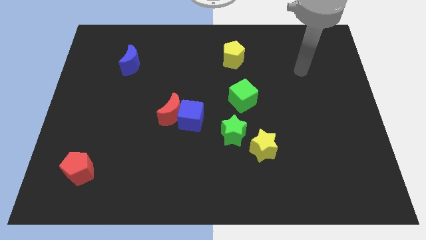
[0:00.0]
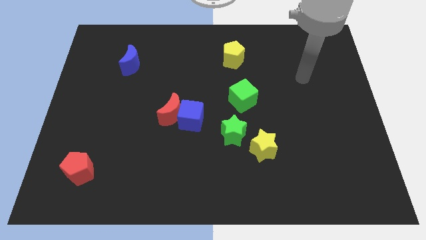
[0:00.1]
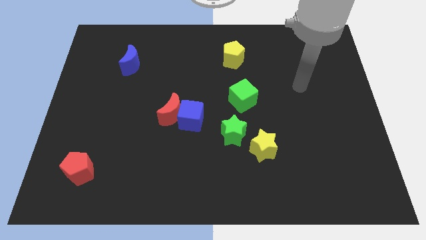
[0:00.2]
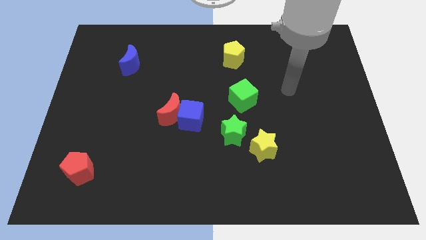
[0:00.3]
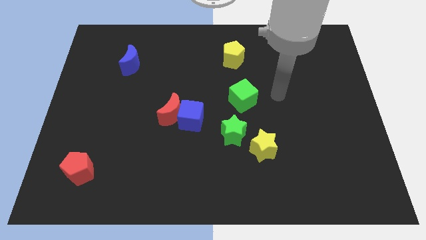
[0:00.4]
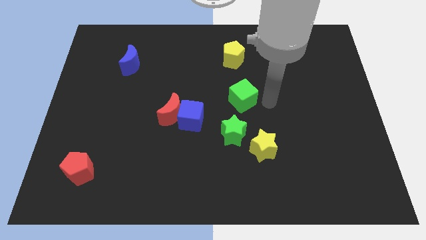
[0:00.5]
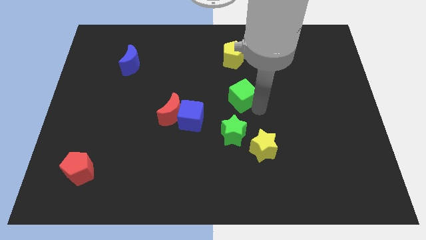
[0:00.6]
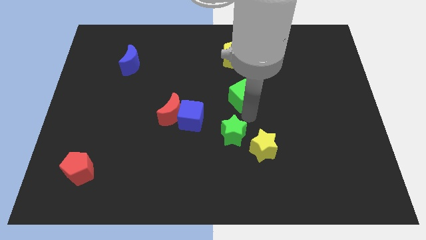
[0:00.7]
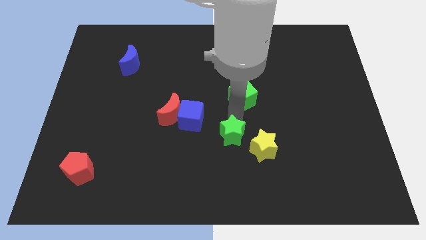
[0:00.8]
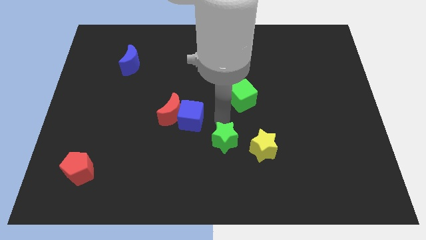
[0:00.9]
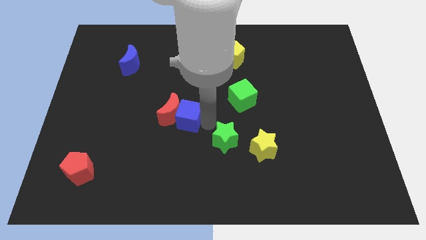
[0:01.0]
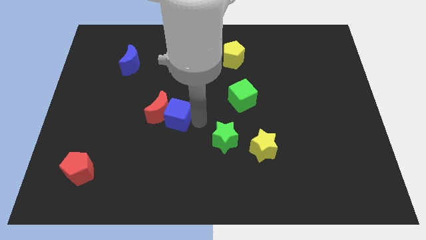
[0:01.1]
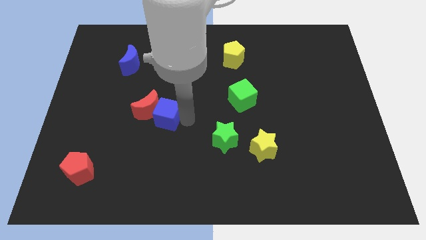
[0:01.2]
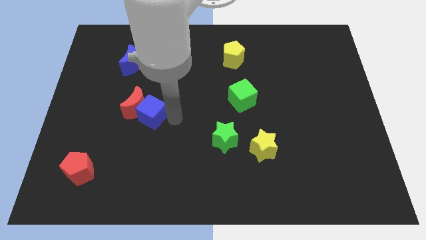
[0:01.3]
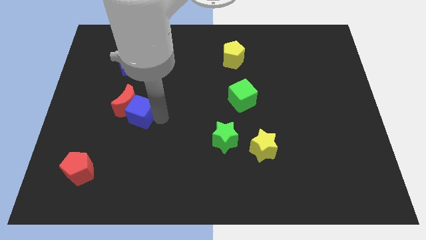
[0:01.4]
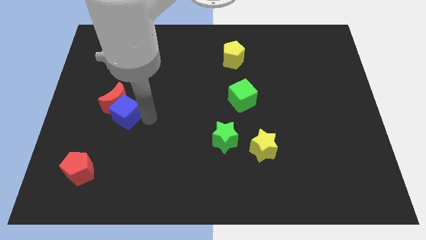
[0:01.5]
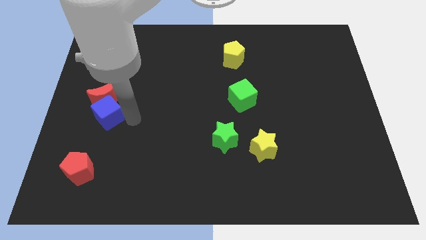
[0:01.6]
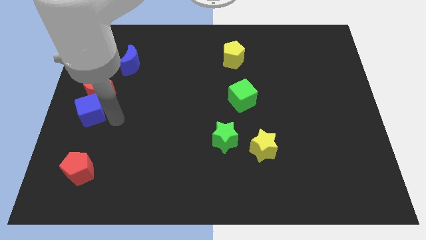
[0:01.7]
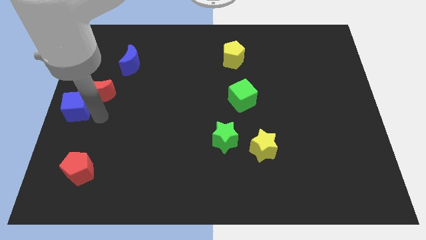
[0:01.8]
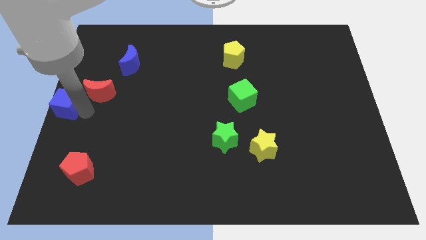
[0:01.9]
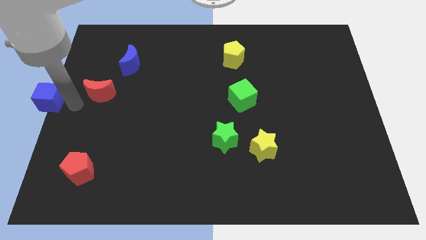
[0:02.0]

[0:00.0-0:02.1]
move the red moon away from the blue cube

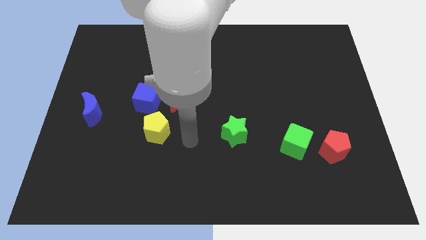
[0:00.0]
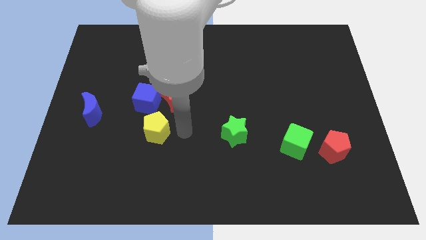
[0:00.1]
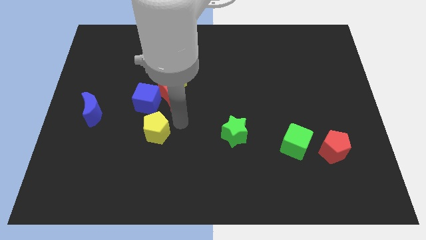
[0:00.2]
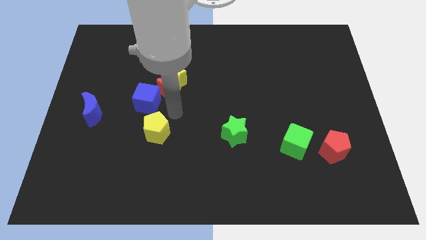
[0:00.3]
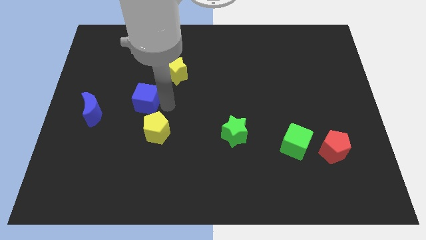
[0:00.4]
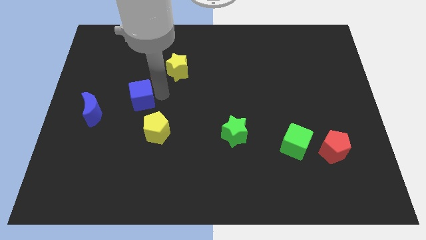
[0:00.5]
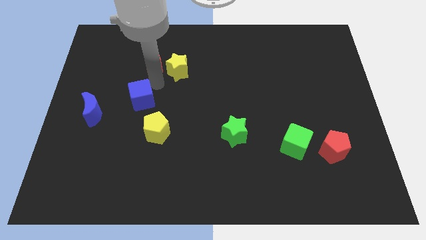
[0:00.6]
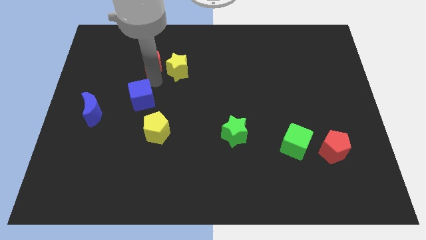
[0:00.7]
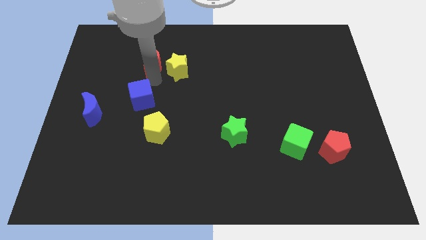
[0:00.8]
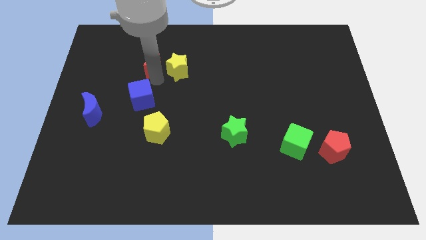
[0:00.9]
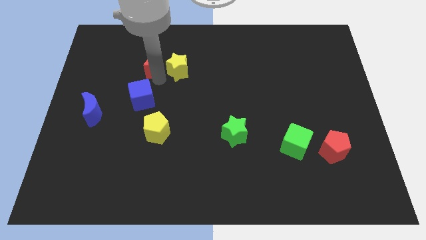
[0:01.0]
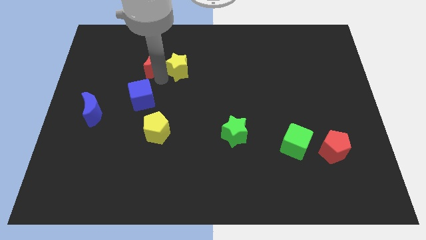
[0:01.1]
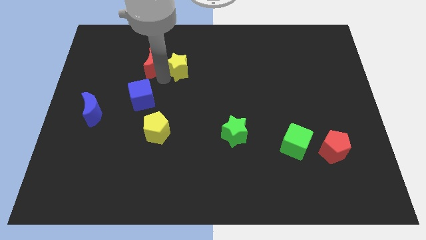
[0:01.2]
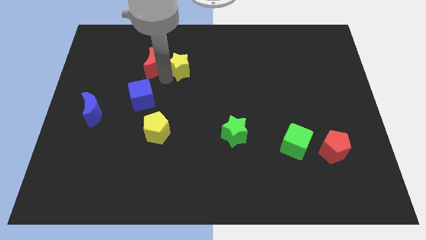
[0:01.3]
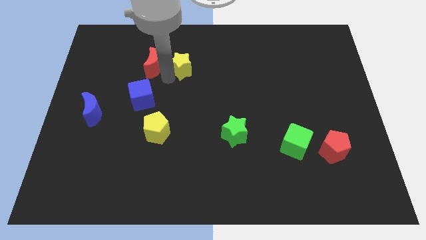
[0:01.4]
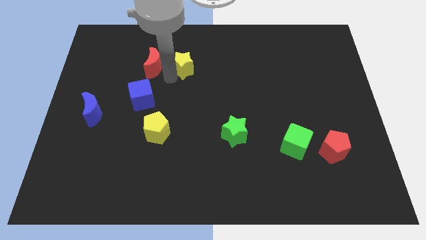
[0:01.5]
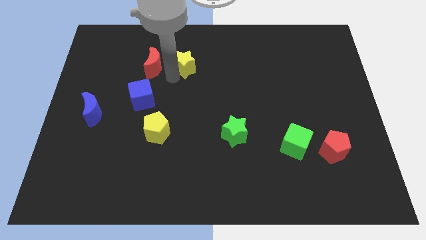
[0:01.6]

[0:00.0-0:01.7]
move the yellow star away from the red moon and blue cube

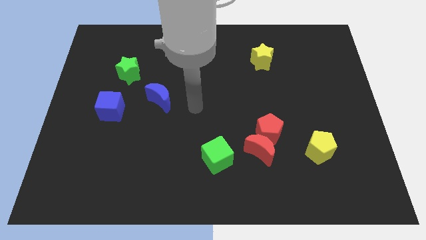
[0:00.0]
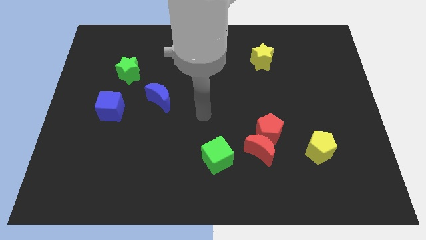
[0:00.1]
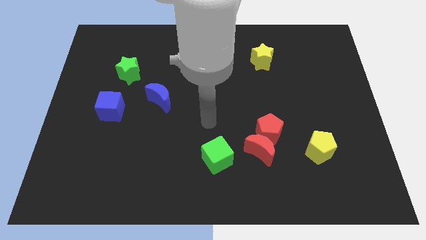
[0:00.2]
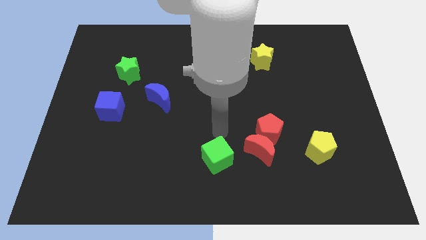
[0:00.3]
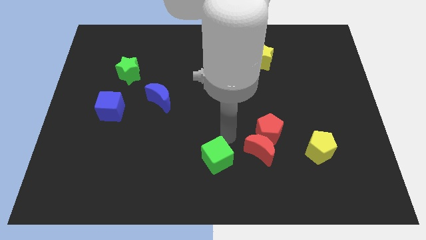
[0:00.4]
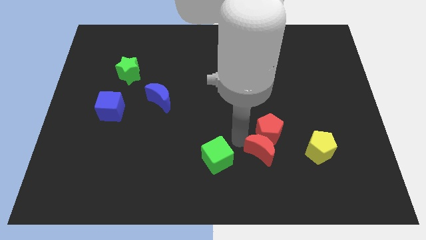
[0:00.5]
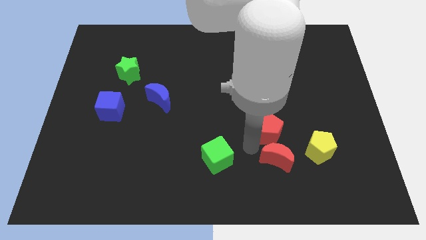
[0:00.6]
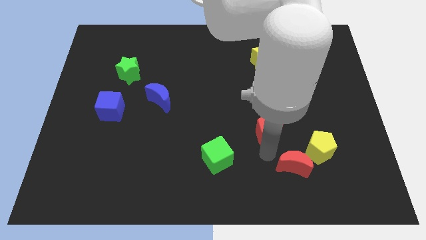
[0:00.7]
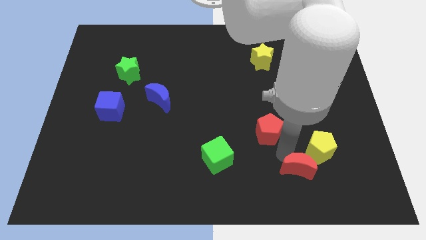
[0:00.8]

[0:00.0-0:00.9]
pull the red pentagon apart from the red moon

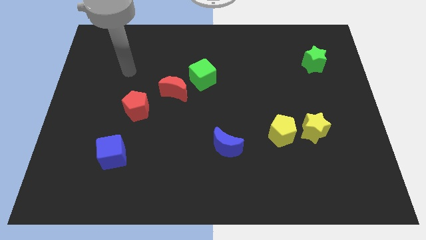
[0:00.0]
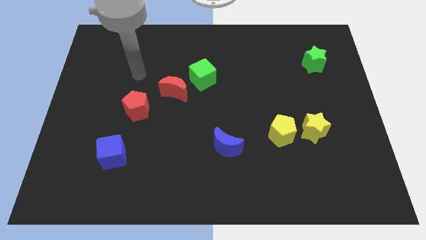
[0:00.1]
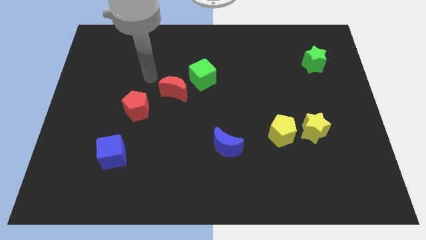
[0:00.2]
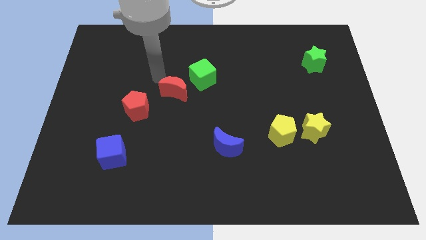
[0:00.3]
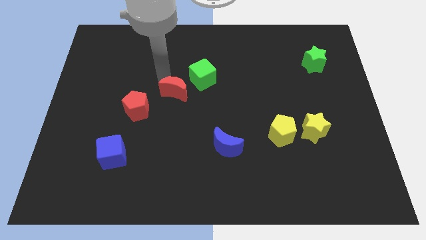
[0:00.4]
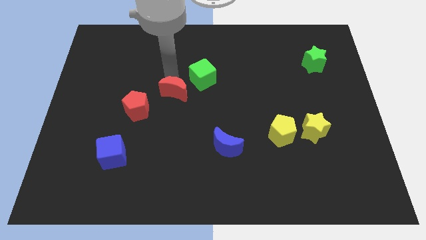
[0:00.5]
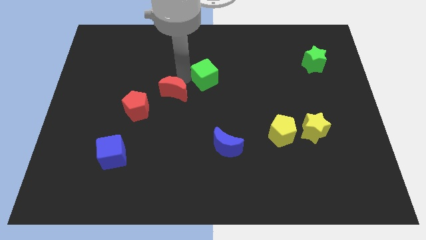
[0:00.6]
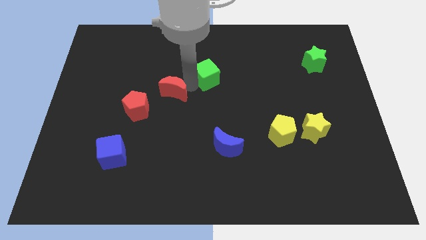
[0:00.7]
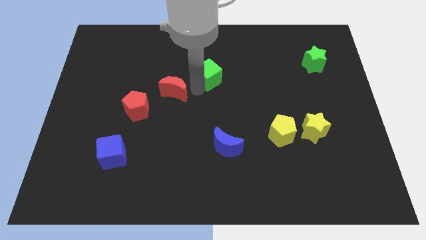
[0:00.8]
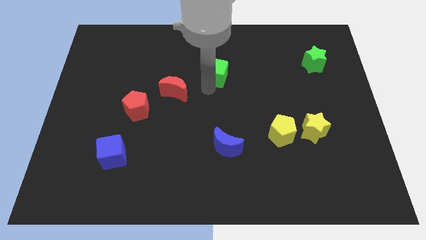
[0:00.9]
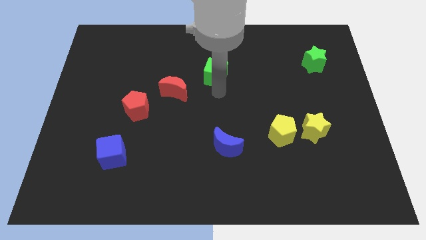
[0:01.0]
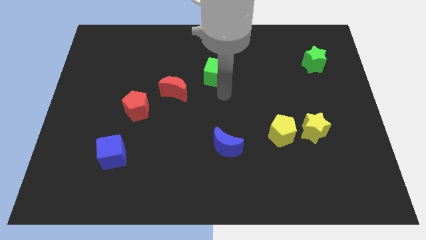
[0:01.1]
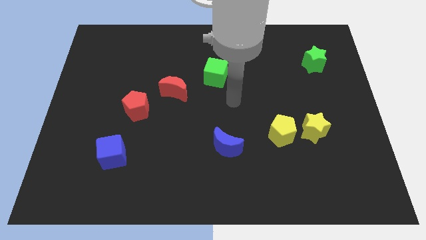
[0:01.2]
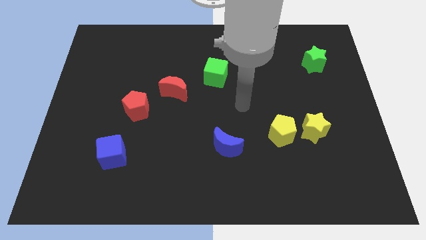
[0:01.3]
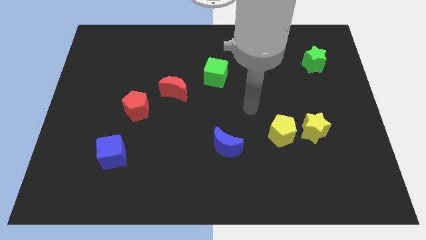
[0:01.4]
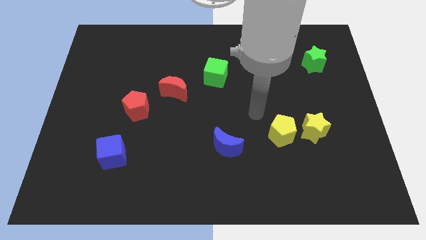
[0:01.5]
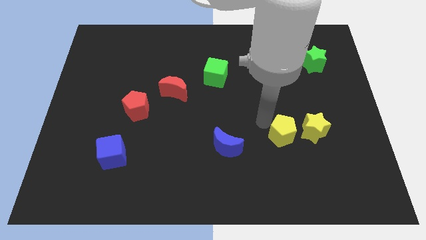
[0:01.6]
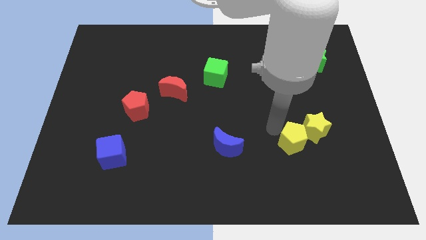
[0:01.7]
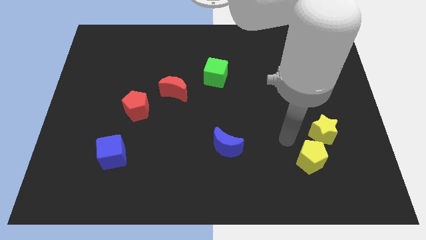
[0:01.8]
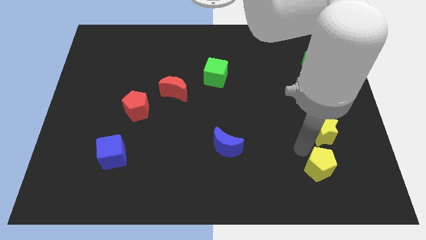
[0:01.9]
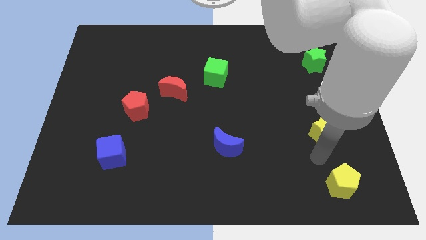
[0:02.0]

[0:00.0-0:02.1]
pull the yellow star apart from the yellow pentagon

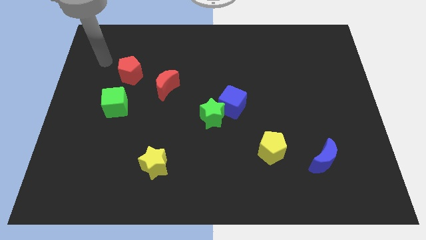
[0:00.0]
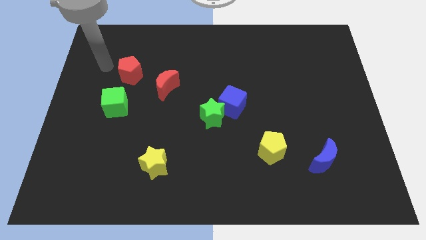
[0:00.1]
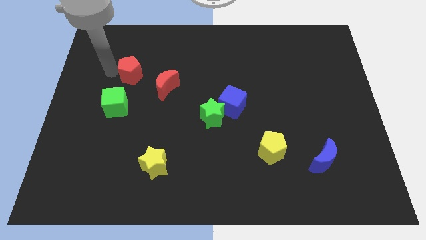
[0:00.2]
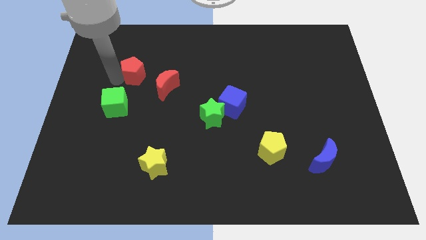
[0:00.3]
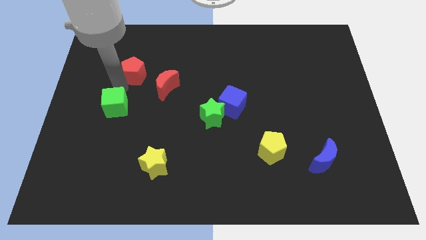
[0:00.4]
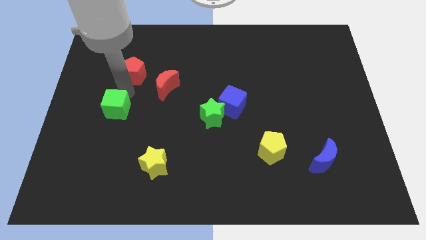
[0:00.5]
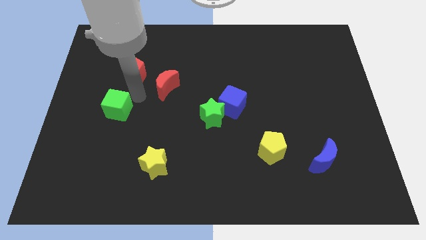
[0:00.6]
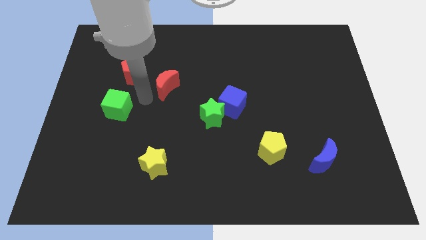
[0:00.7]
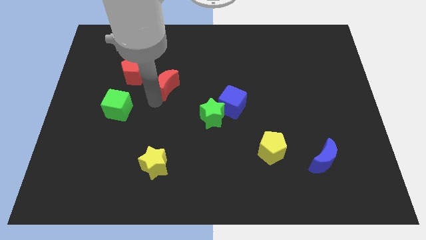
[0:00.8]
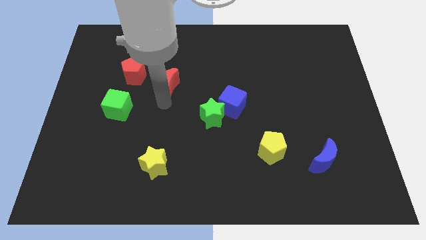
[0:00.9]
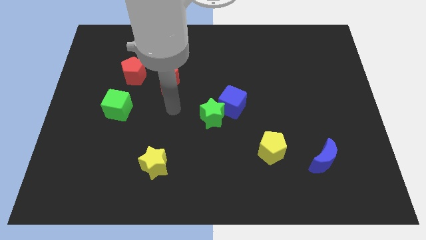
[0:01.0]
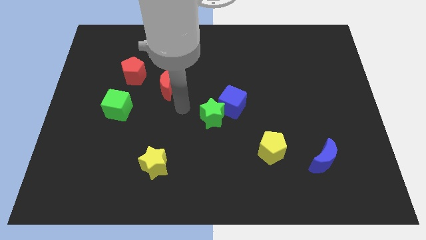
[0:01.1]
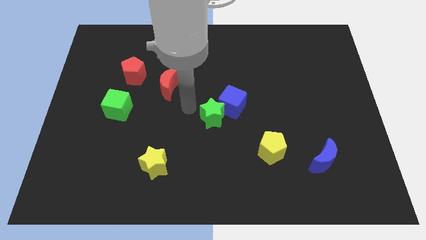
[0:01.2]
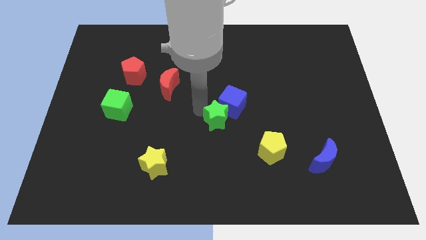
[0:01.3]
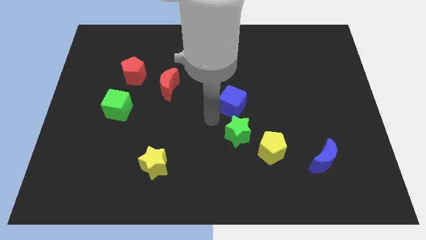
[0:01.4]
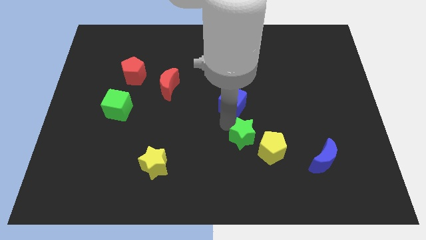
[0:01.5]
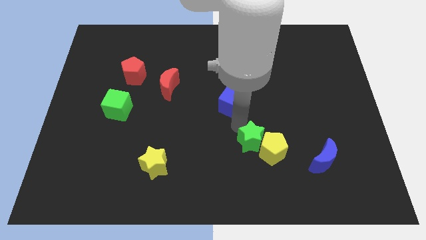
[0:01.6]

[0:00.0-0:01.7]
move the blue cube away from the green star

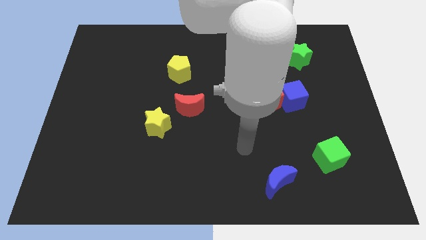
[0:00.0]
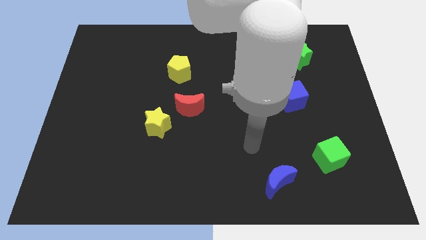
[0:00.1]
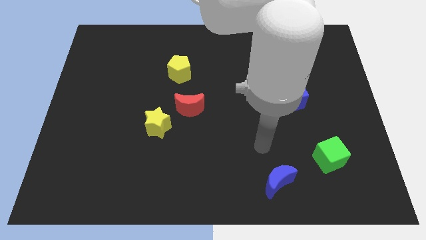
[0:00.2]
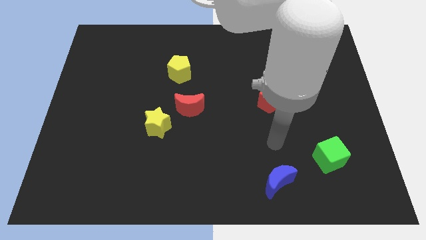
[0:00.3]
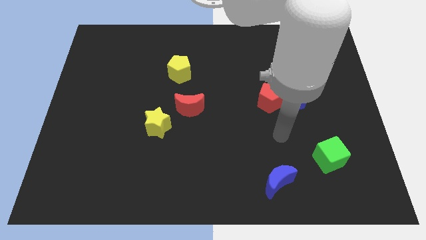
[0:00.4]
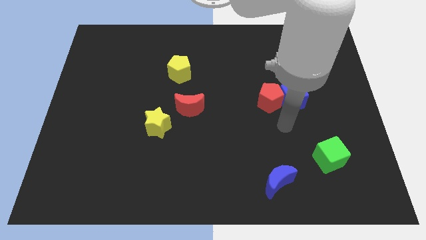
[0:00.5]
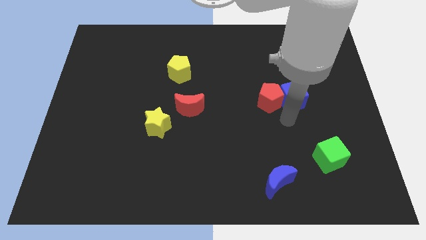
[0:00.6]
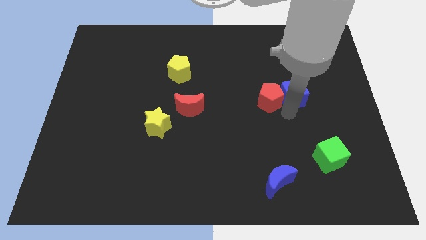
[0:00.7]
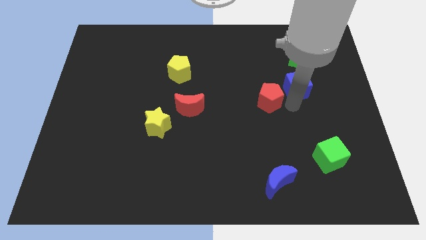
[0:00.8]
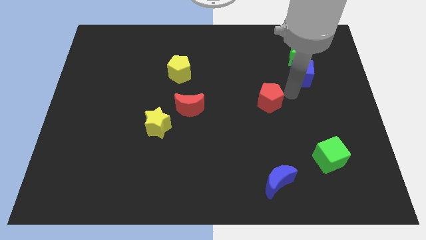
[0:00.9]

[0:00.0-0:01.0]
move the red pentagon away from the blue cube
